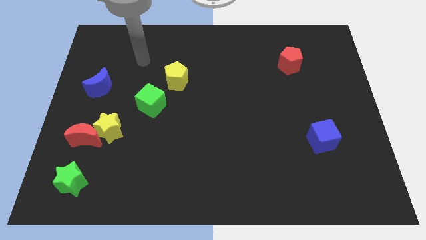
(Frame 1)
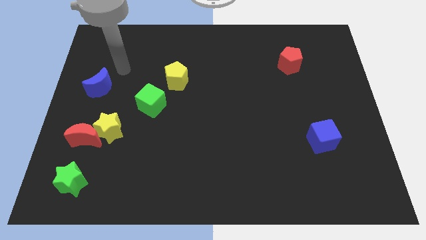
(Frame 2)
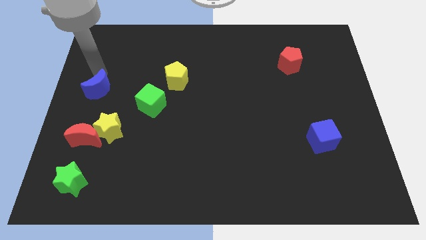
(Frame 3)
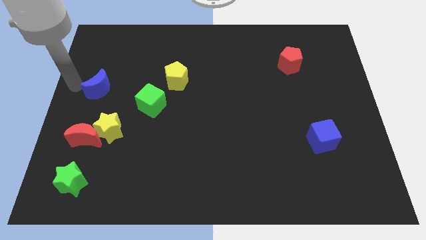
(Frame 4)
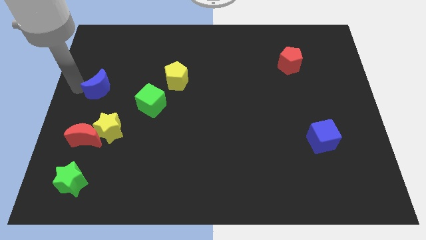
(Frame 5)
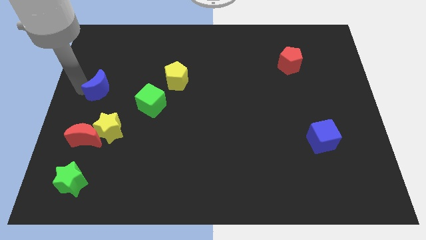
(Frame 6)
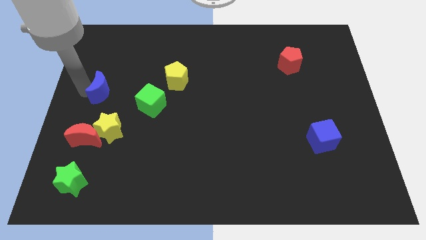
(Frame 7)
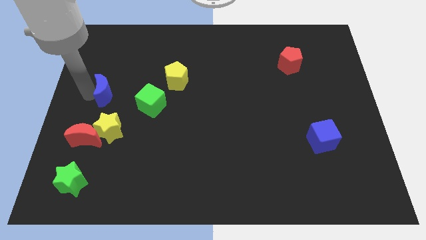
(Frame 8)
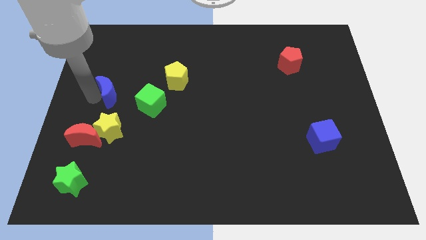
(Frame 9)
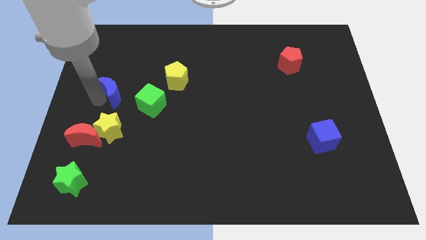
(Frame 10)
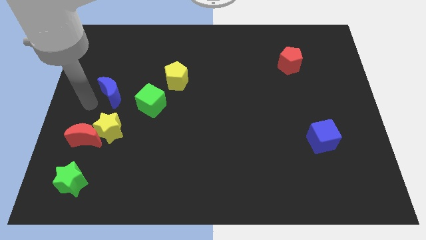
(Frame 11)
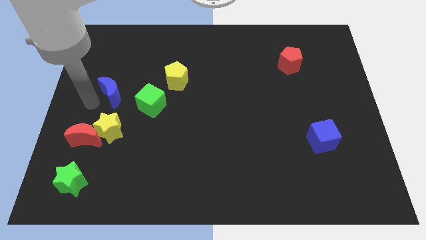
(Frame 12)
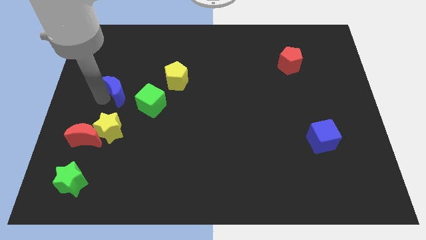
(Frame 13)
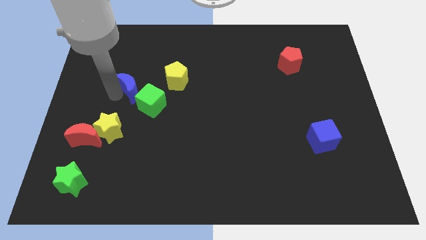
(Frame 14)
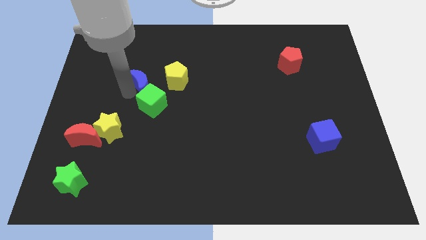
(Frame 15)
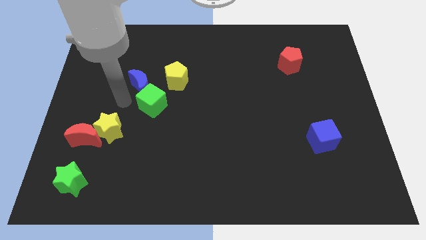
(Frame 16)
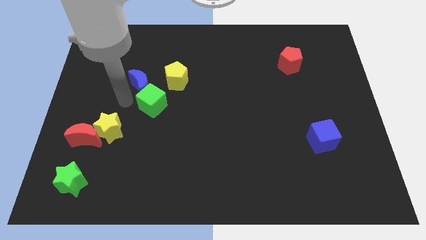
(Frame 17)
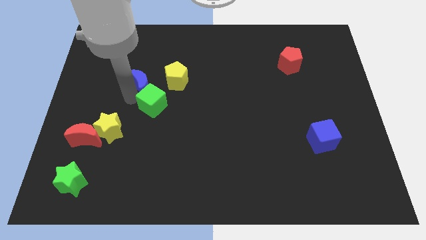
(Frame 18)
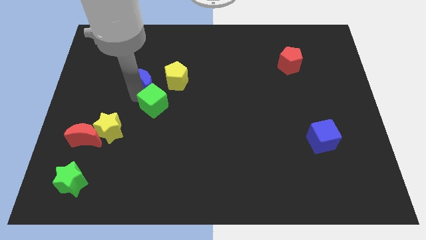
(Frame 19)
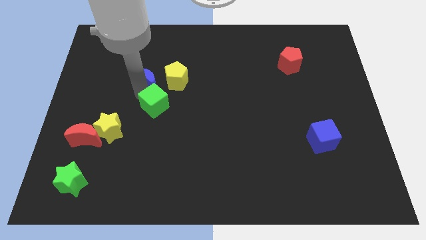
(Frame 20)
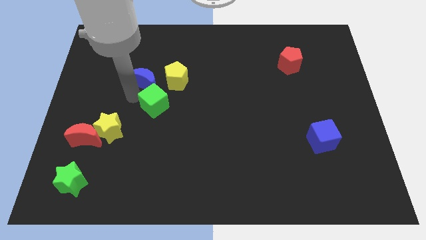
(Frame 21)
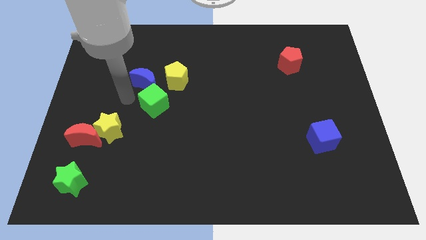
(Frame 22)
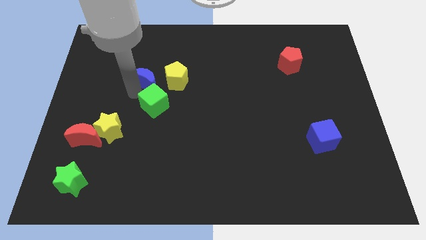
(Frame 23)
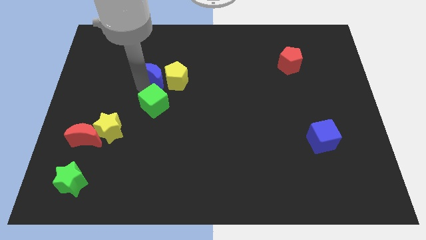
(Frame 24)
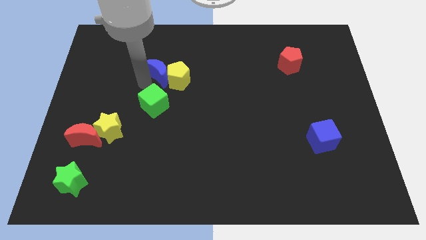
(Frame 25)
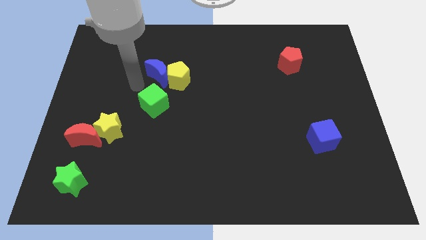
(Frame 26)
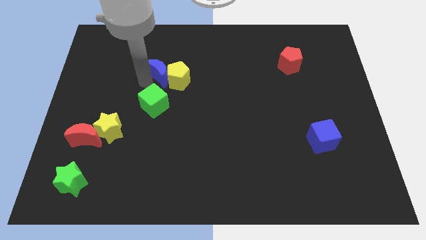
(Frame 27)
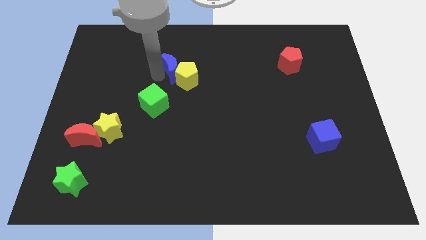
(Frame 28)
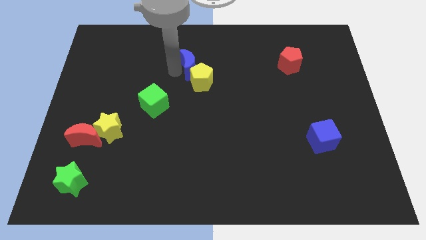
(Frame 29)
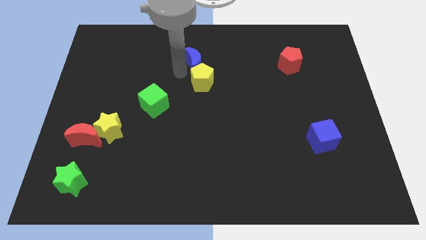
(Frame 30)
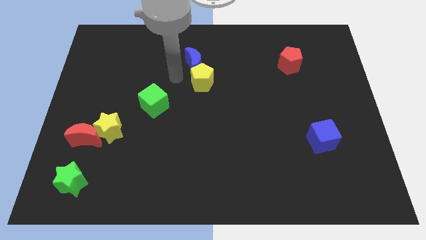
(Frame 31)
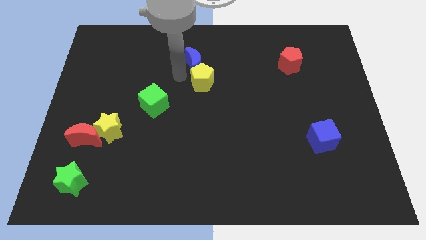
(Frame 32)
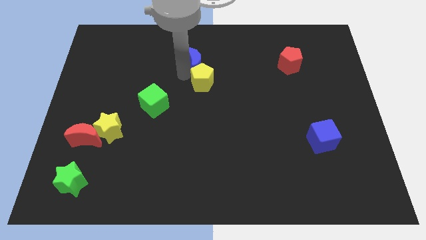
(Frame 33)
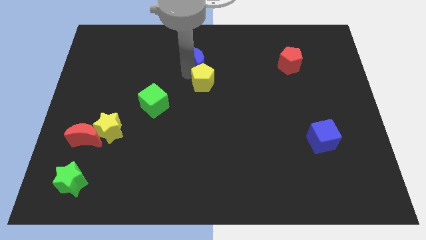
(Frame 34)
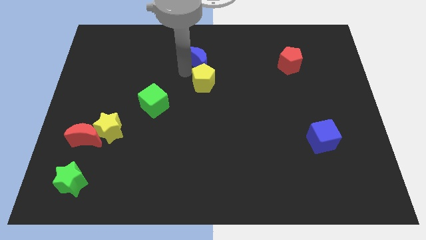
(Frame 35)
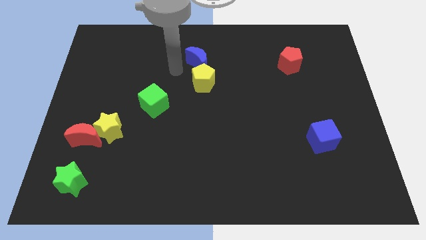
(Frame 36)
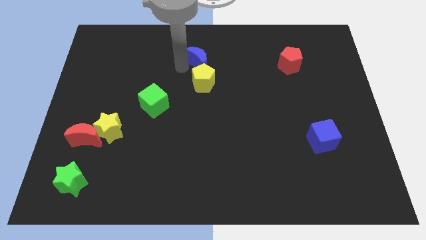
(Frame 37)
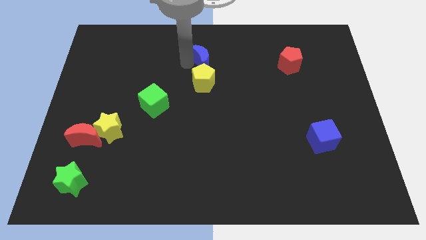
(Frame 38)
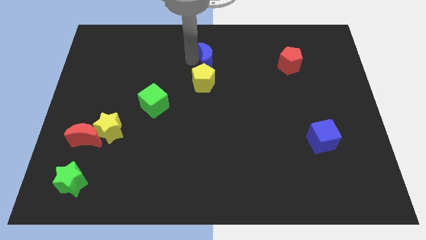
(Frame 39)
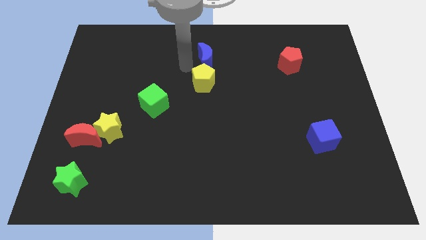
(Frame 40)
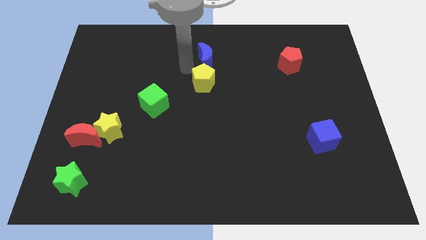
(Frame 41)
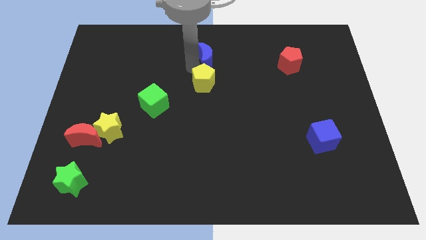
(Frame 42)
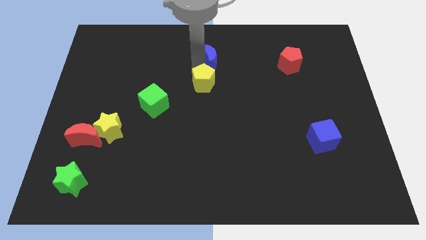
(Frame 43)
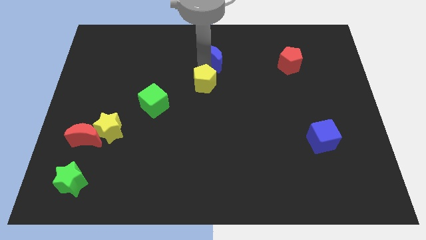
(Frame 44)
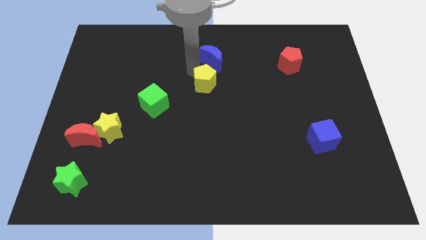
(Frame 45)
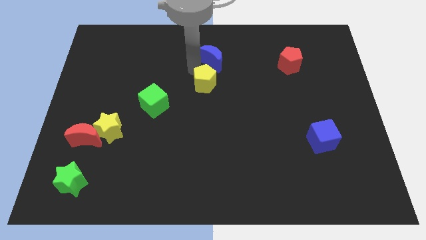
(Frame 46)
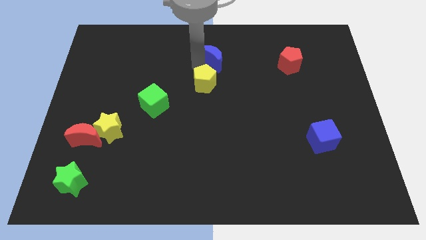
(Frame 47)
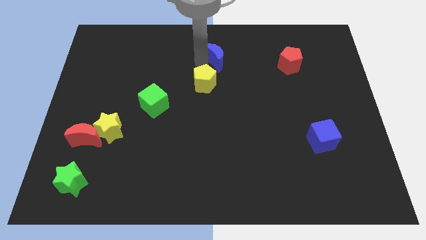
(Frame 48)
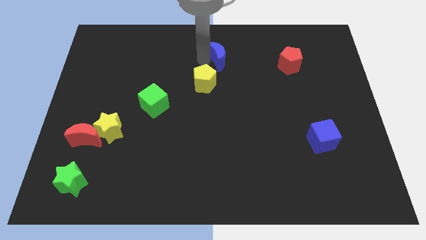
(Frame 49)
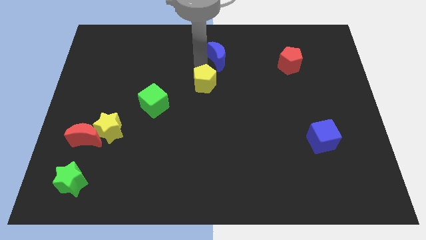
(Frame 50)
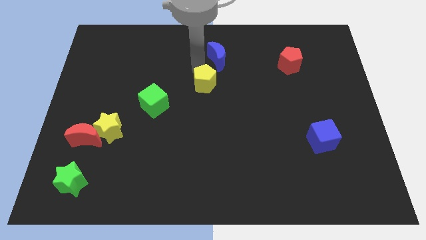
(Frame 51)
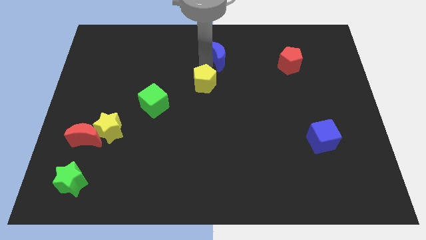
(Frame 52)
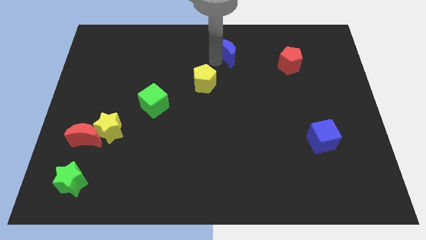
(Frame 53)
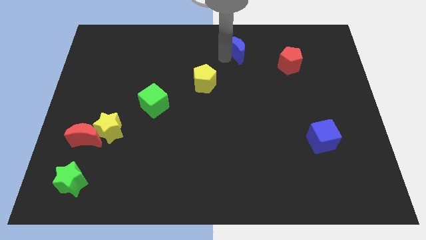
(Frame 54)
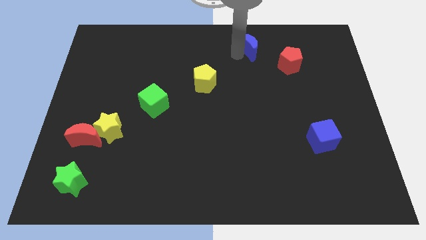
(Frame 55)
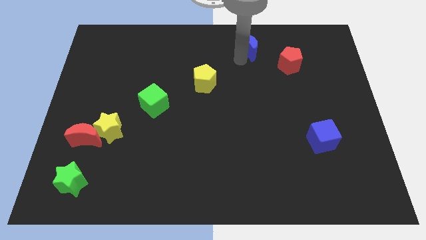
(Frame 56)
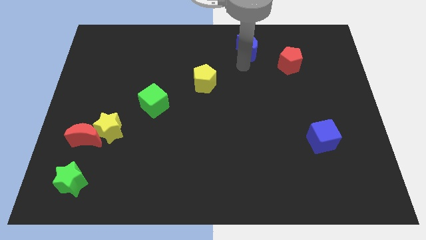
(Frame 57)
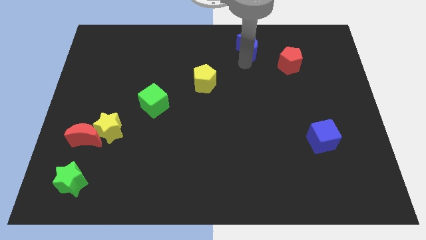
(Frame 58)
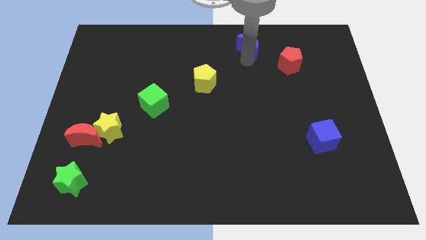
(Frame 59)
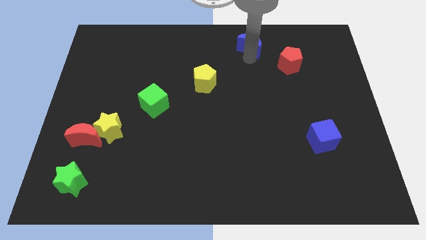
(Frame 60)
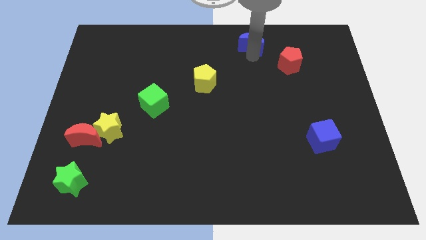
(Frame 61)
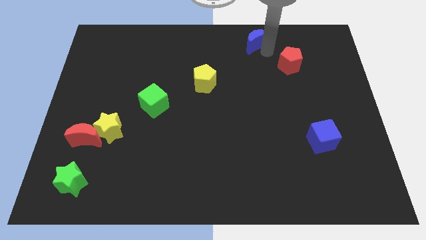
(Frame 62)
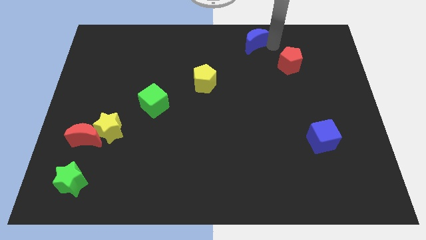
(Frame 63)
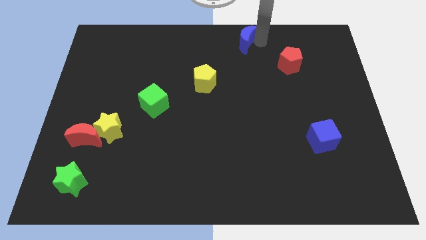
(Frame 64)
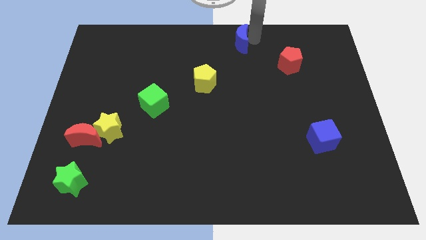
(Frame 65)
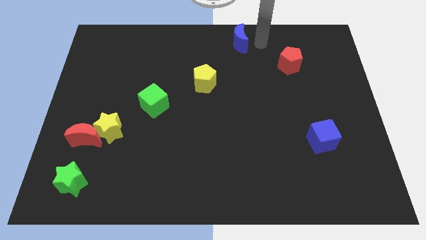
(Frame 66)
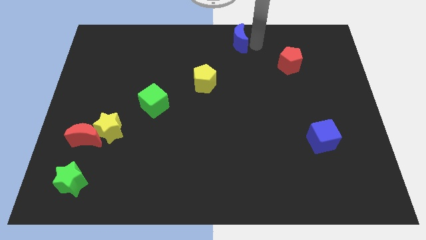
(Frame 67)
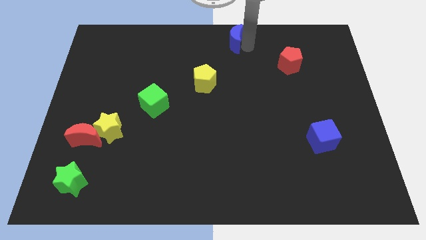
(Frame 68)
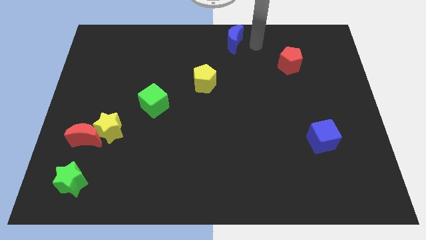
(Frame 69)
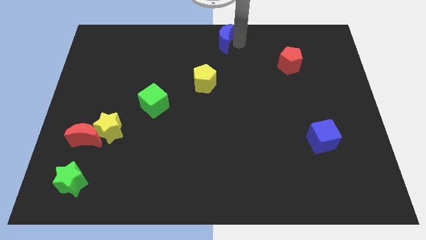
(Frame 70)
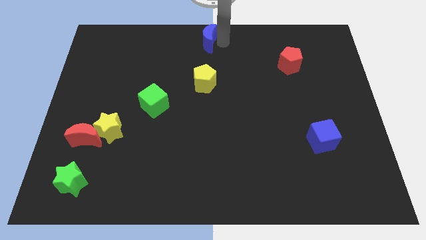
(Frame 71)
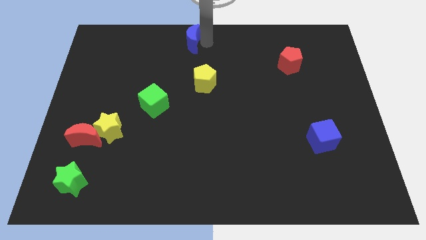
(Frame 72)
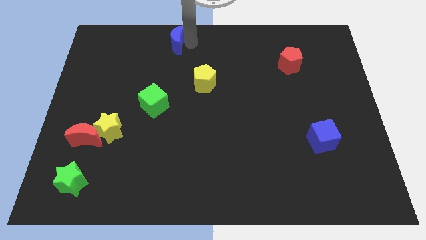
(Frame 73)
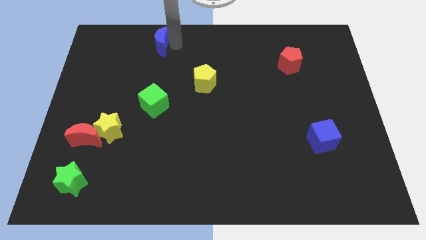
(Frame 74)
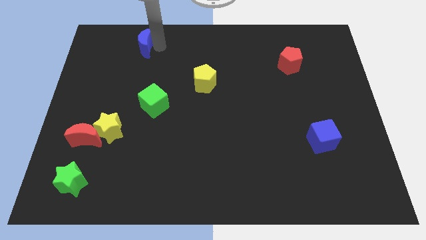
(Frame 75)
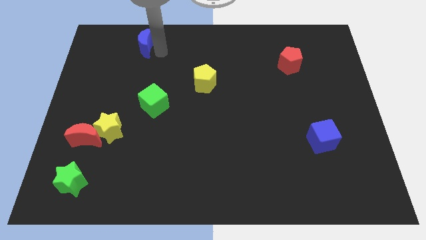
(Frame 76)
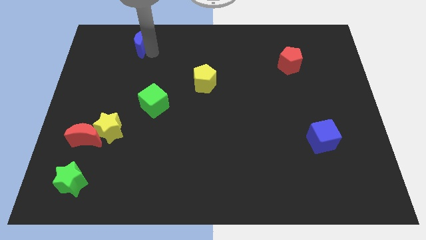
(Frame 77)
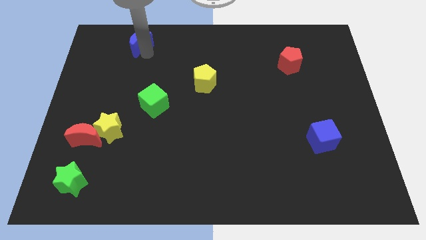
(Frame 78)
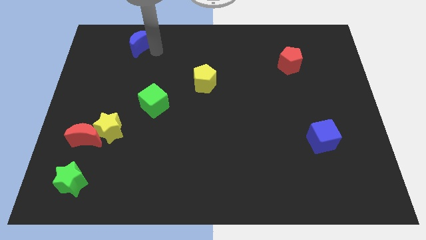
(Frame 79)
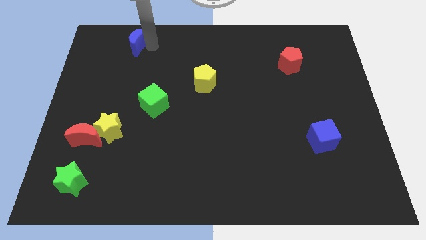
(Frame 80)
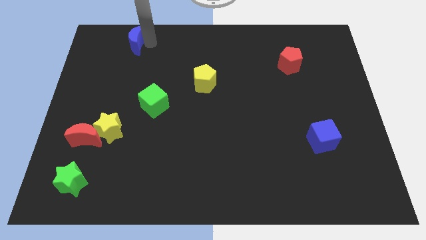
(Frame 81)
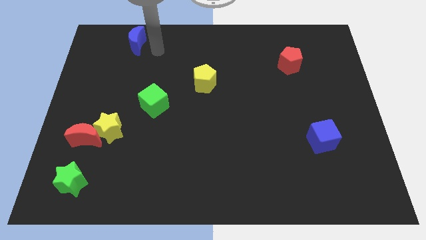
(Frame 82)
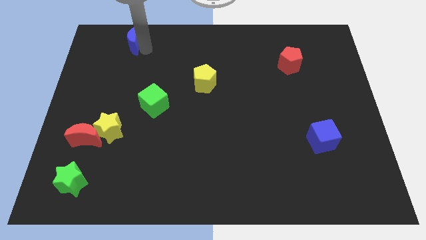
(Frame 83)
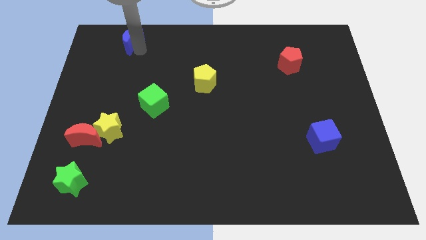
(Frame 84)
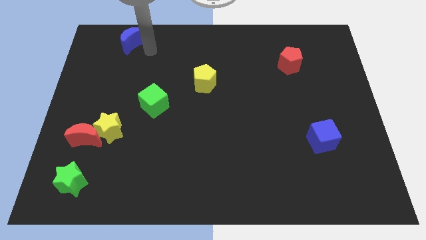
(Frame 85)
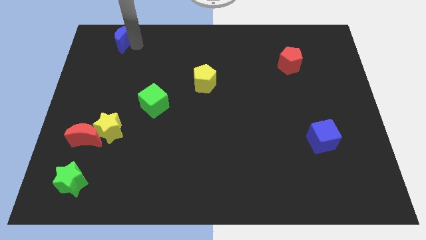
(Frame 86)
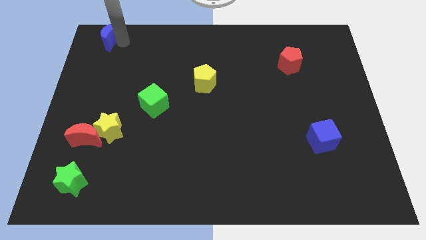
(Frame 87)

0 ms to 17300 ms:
slide the blue moon to the top left corner
